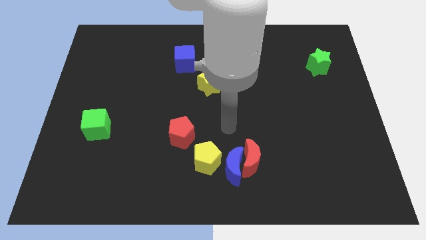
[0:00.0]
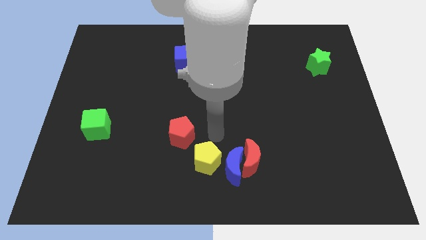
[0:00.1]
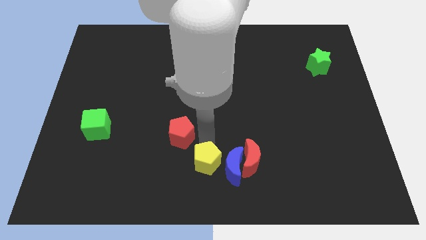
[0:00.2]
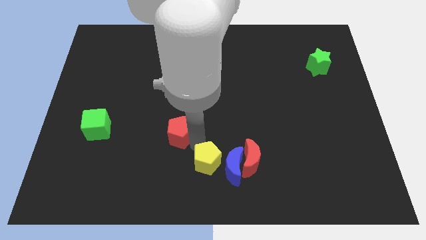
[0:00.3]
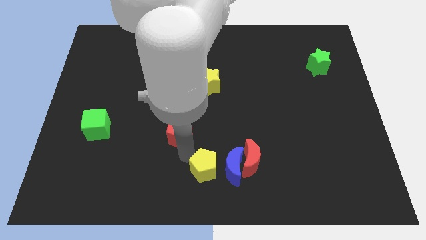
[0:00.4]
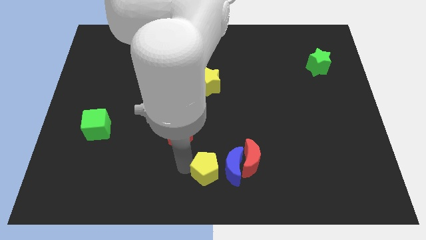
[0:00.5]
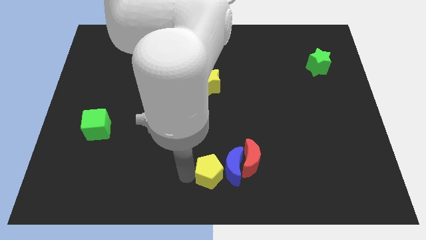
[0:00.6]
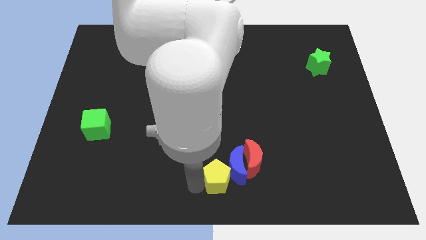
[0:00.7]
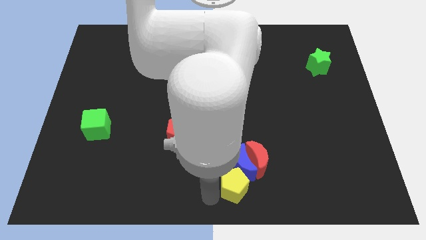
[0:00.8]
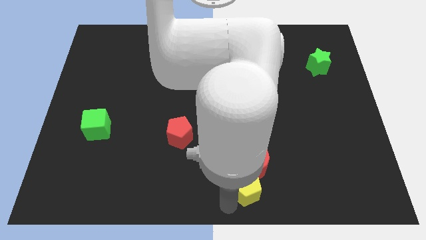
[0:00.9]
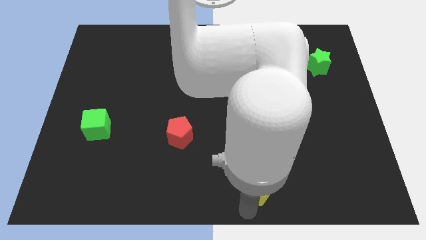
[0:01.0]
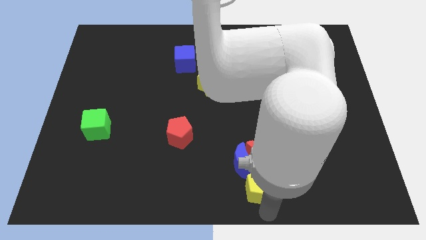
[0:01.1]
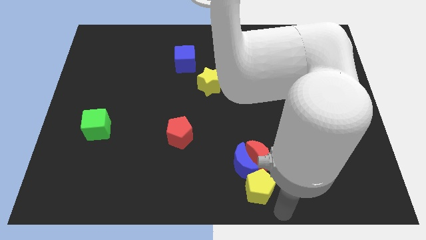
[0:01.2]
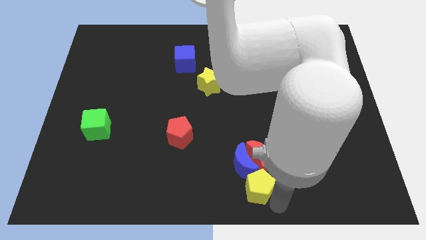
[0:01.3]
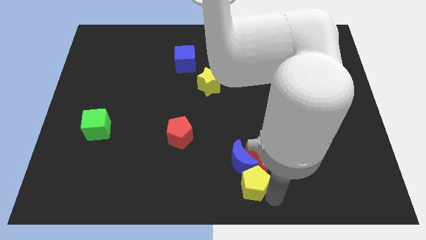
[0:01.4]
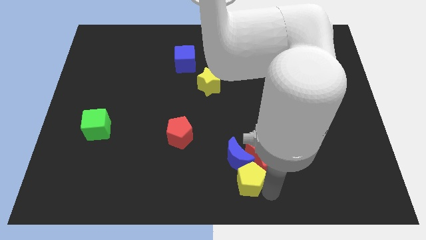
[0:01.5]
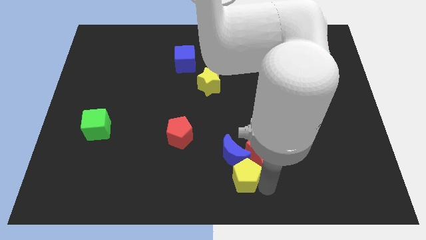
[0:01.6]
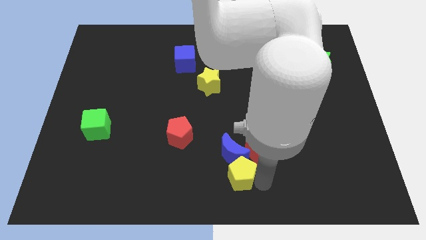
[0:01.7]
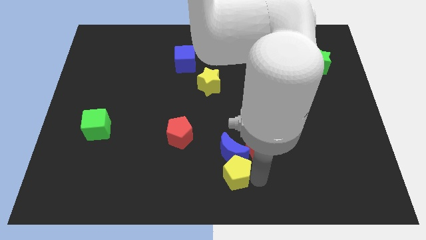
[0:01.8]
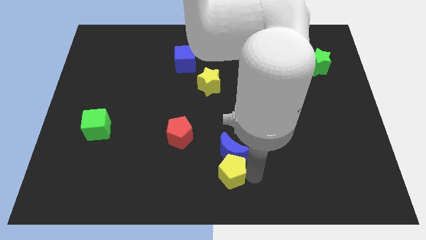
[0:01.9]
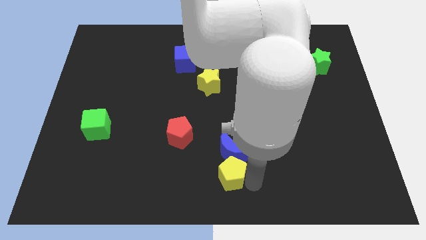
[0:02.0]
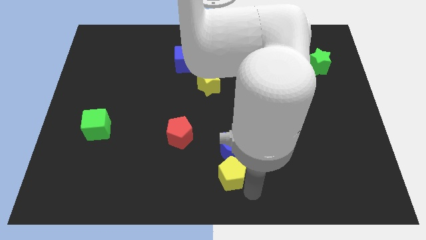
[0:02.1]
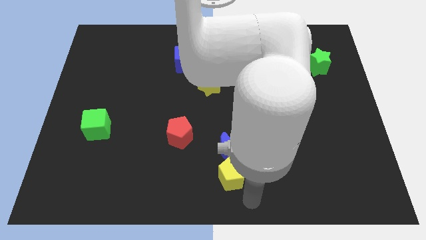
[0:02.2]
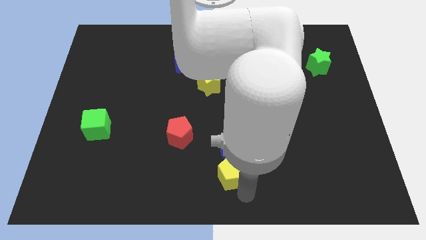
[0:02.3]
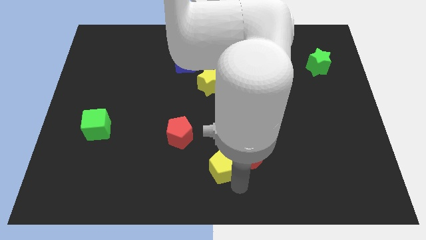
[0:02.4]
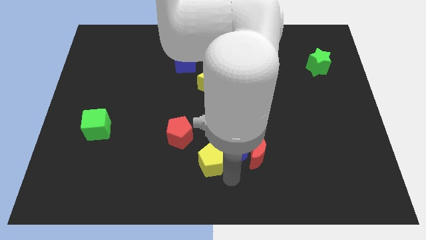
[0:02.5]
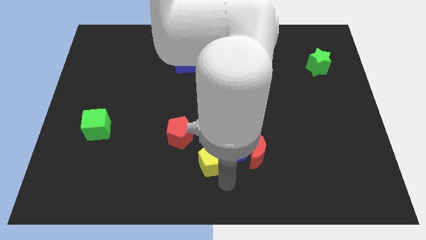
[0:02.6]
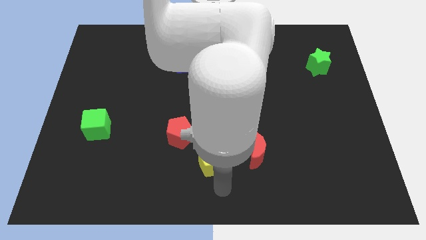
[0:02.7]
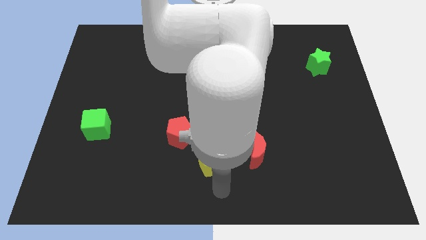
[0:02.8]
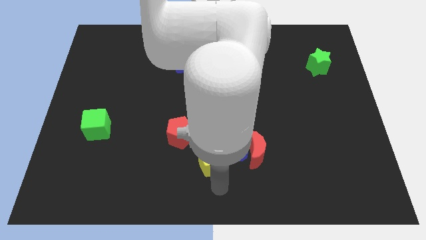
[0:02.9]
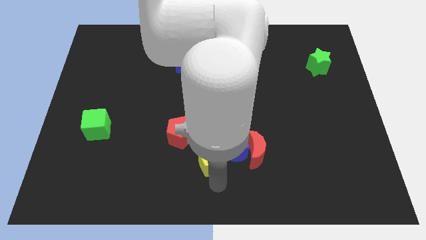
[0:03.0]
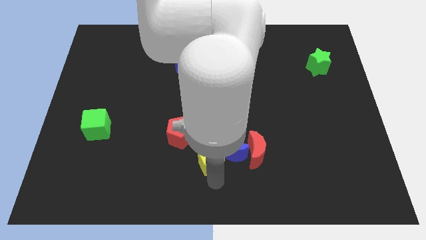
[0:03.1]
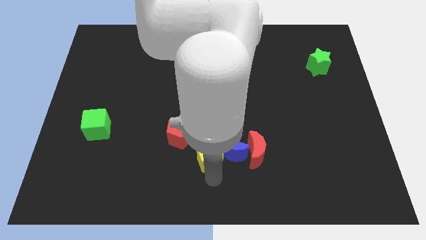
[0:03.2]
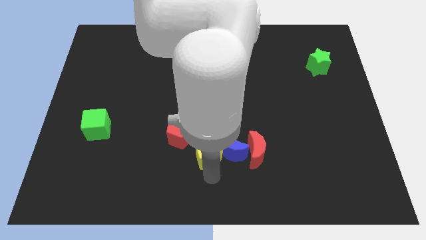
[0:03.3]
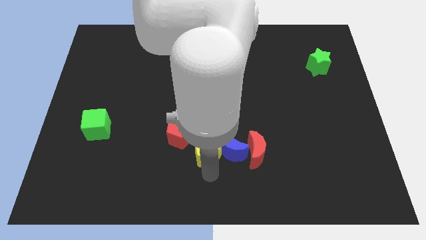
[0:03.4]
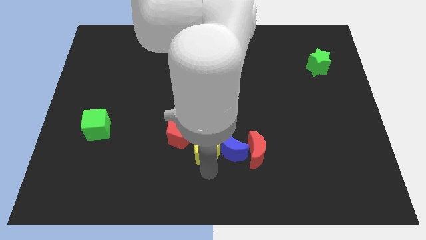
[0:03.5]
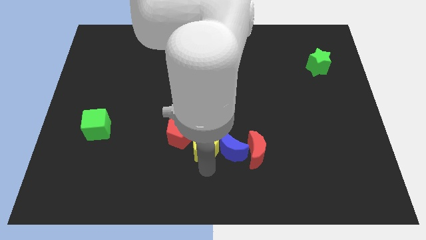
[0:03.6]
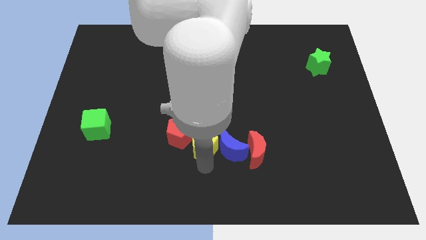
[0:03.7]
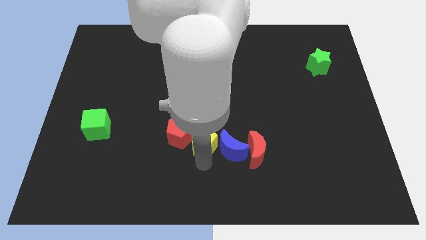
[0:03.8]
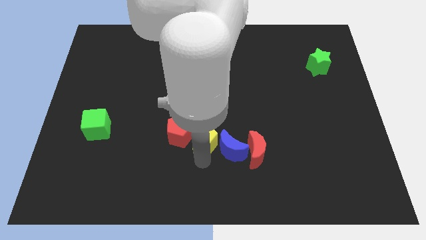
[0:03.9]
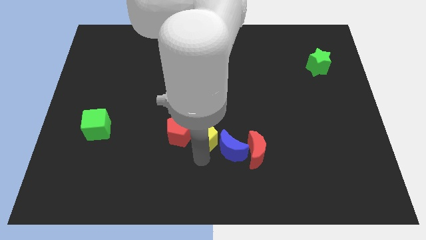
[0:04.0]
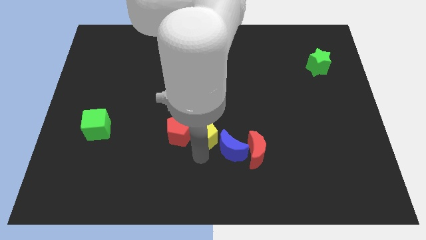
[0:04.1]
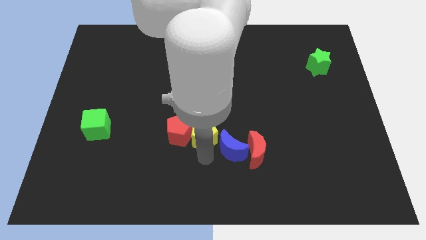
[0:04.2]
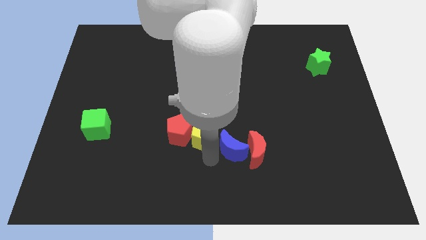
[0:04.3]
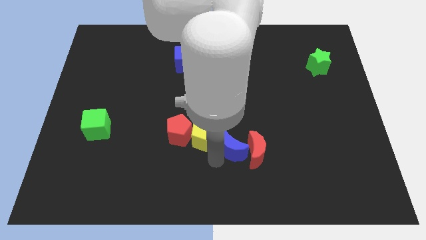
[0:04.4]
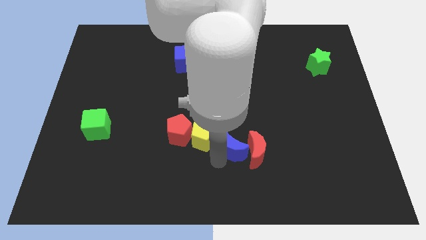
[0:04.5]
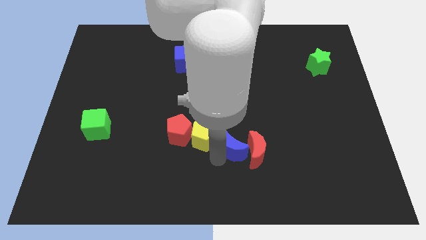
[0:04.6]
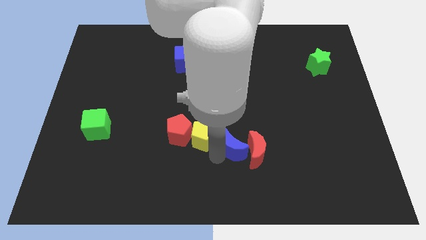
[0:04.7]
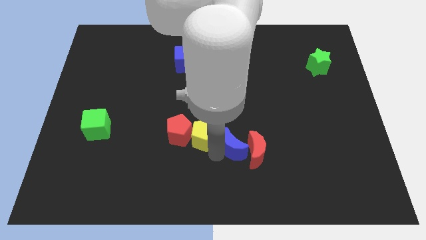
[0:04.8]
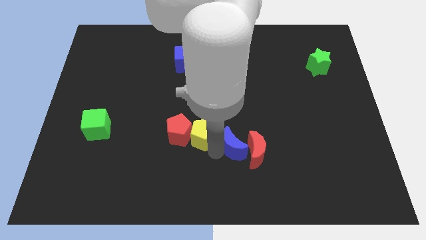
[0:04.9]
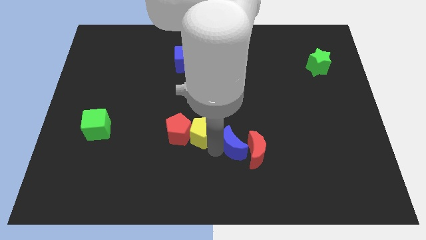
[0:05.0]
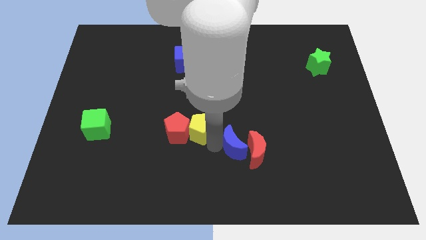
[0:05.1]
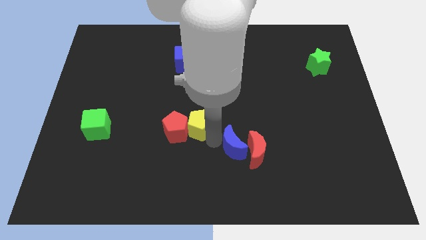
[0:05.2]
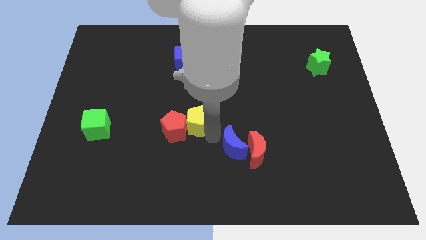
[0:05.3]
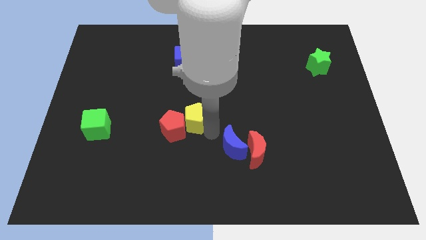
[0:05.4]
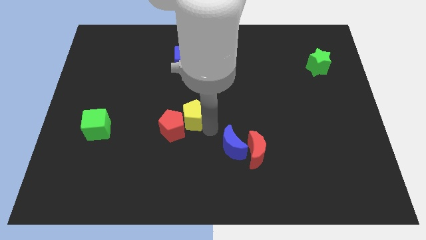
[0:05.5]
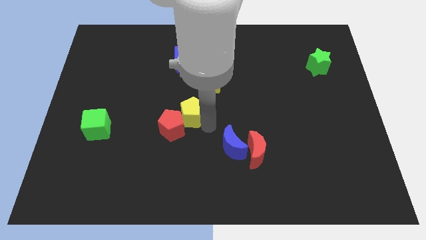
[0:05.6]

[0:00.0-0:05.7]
put the yellow pentagon to the top side of the red pentagon

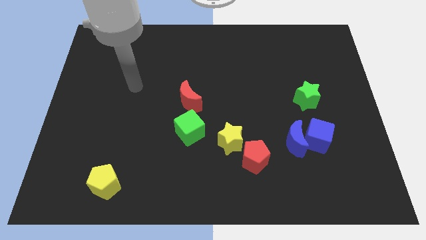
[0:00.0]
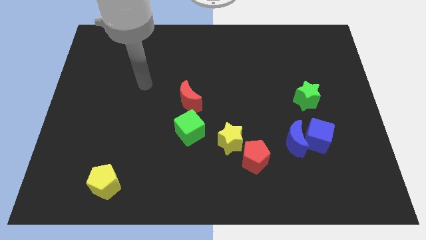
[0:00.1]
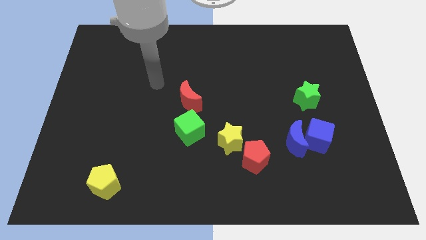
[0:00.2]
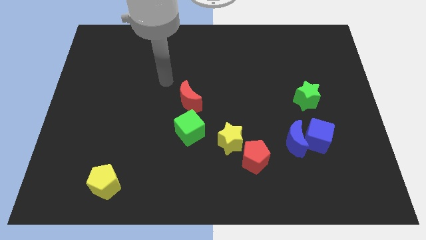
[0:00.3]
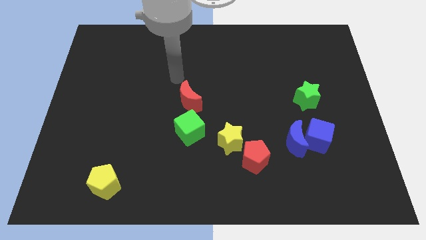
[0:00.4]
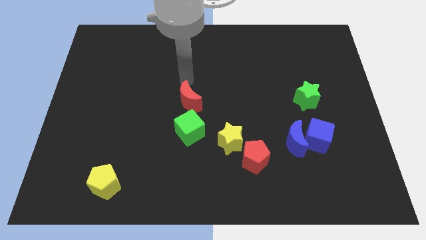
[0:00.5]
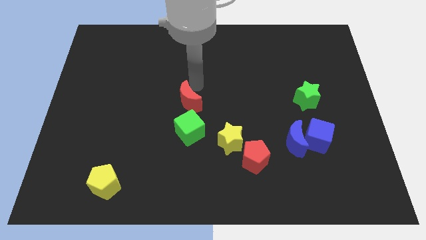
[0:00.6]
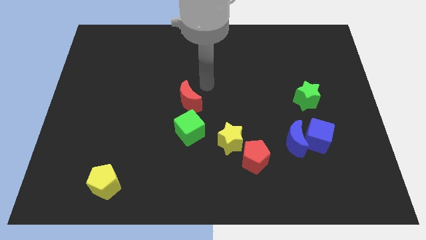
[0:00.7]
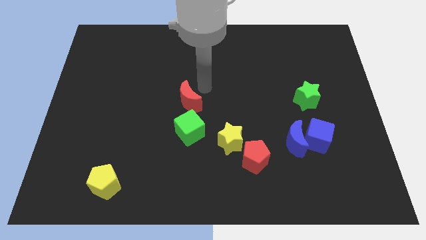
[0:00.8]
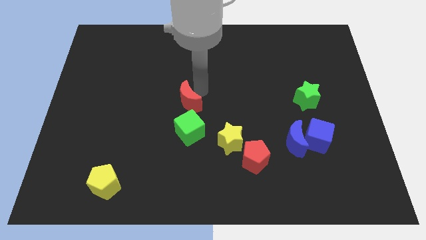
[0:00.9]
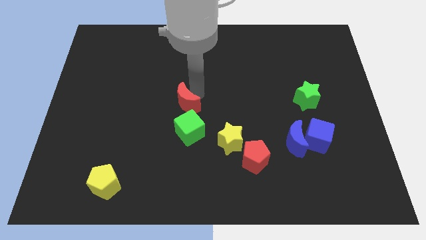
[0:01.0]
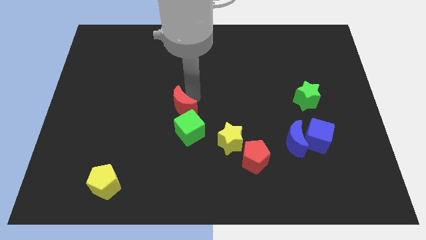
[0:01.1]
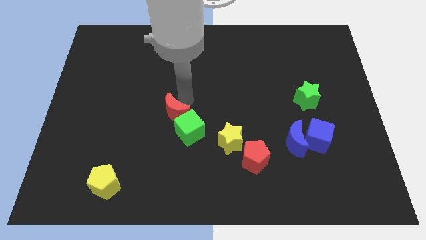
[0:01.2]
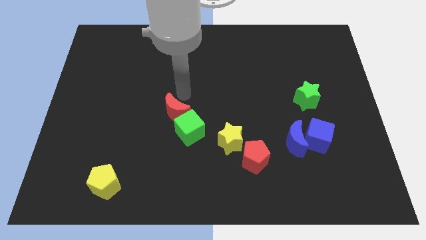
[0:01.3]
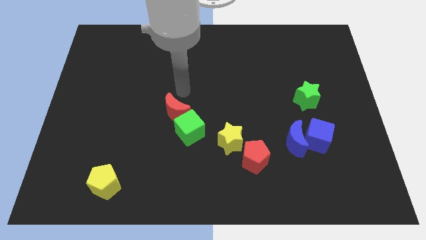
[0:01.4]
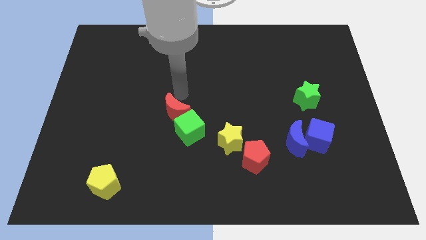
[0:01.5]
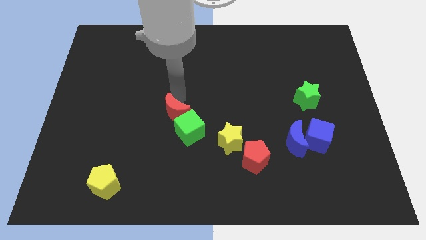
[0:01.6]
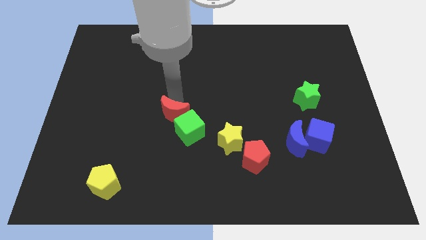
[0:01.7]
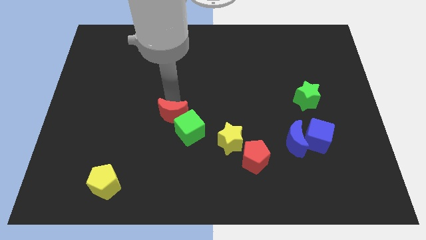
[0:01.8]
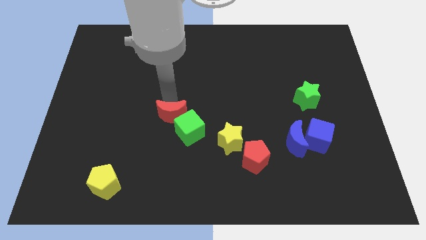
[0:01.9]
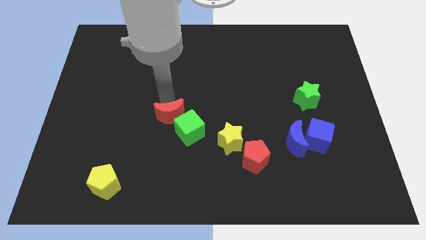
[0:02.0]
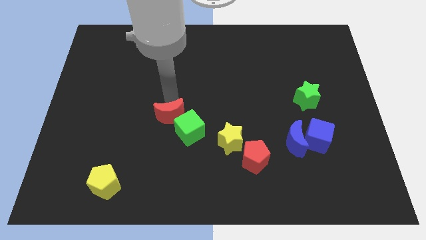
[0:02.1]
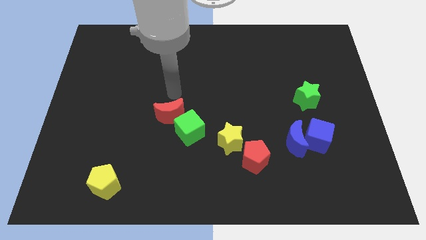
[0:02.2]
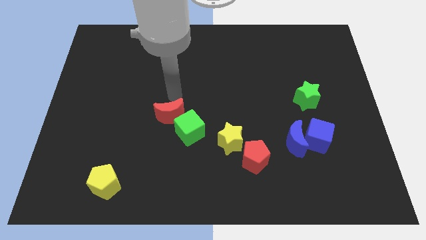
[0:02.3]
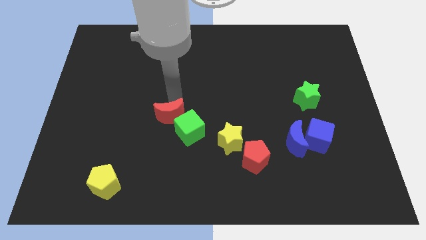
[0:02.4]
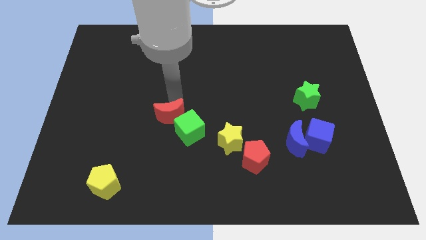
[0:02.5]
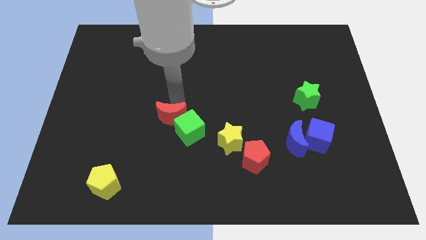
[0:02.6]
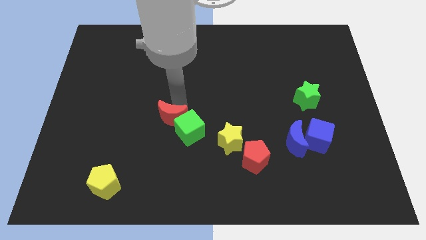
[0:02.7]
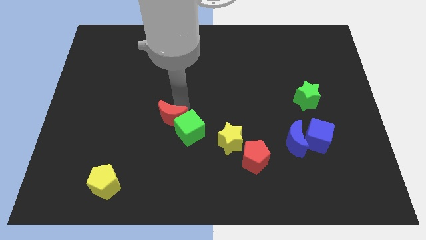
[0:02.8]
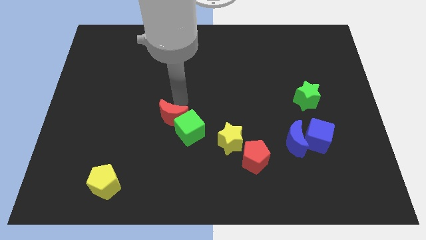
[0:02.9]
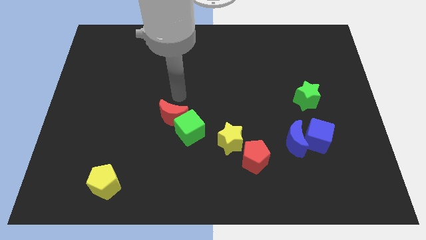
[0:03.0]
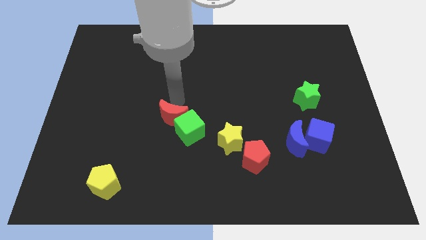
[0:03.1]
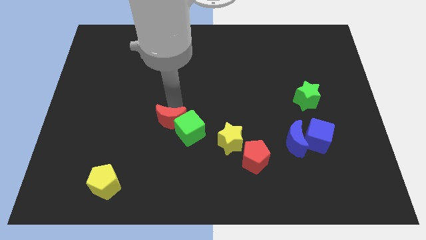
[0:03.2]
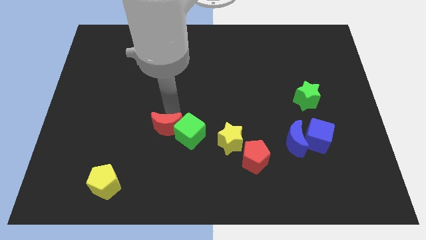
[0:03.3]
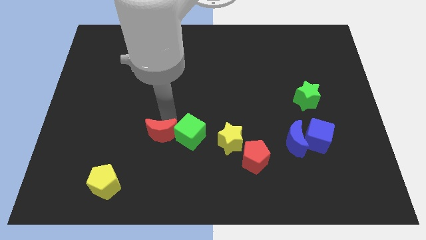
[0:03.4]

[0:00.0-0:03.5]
slide the red moon to the bottom left of the green cube
